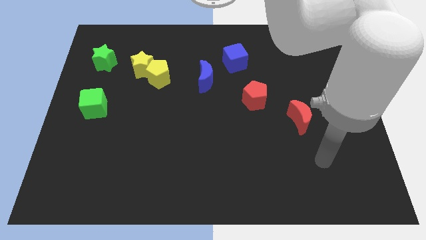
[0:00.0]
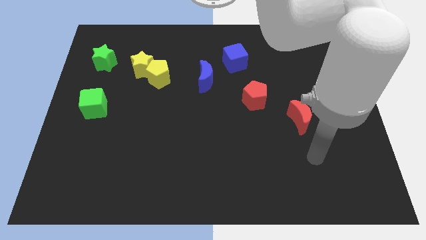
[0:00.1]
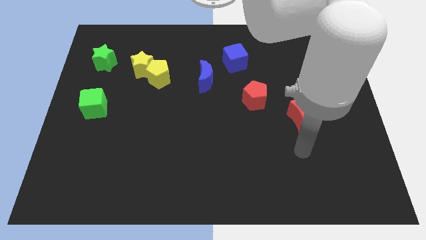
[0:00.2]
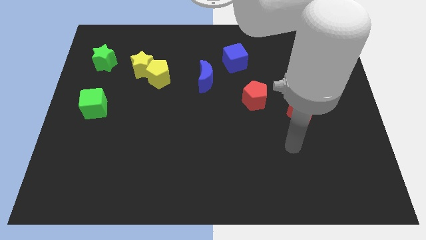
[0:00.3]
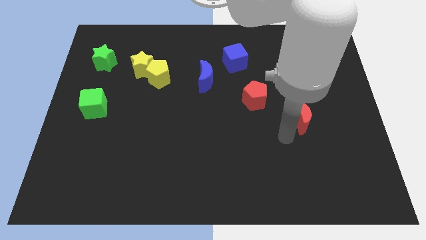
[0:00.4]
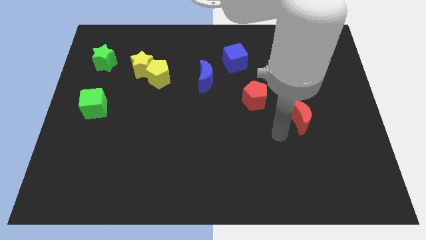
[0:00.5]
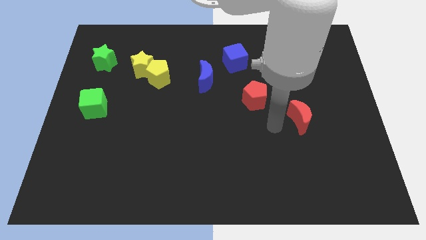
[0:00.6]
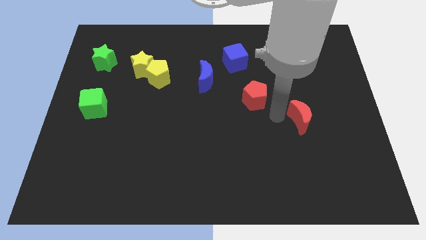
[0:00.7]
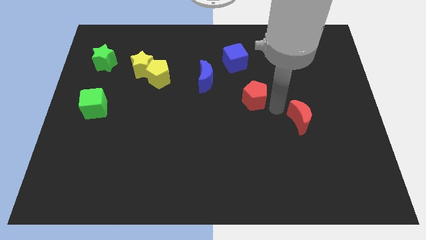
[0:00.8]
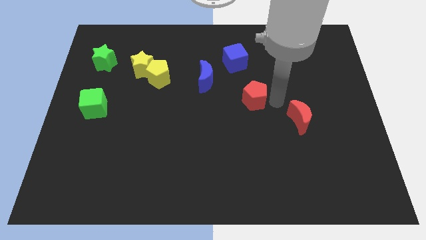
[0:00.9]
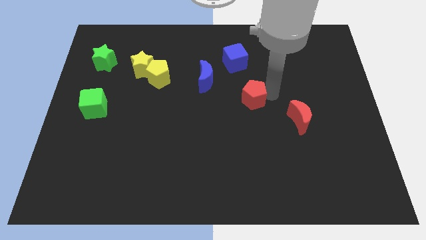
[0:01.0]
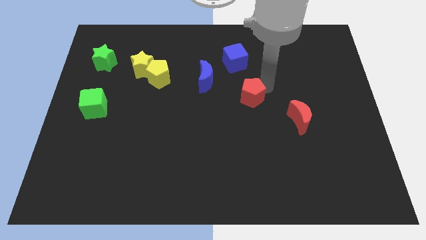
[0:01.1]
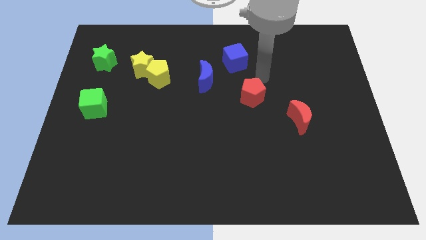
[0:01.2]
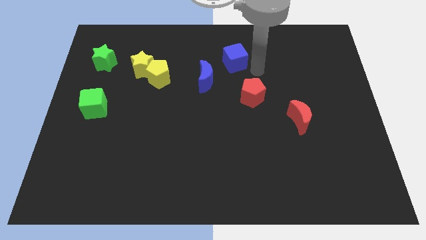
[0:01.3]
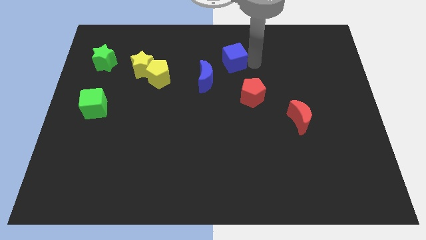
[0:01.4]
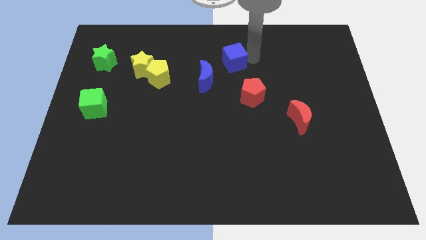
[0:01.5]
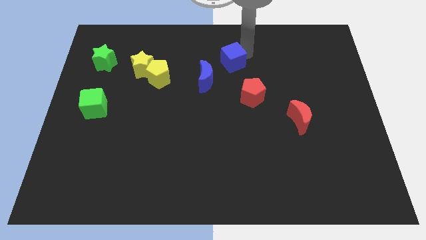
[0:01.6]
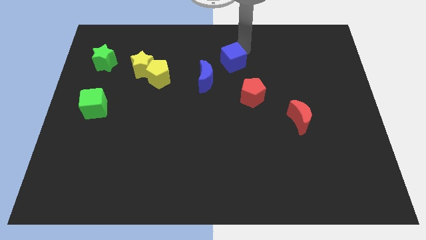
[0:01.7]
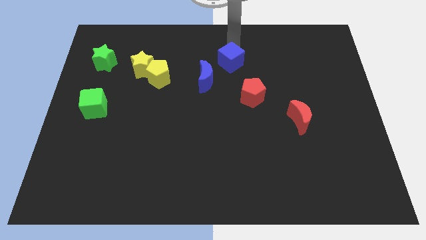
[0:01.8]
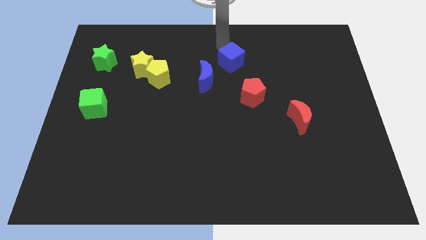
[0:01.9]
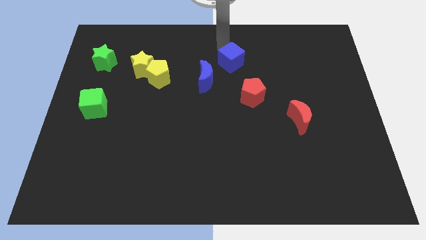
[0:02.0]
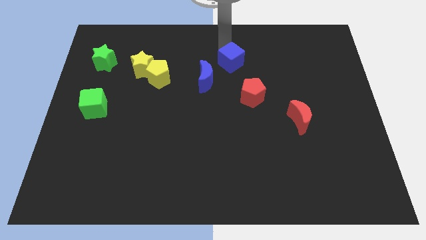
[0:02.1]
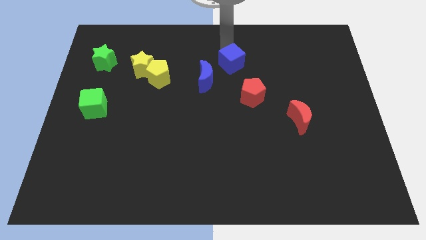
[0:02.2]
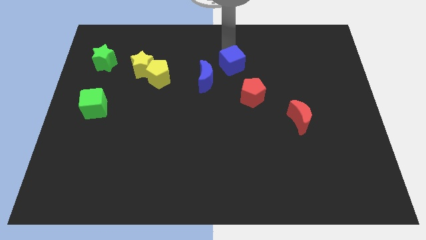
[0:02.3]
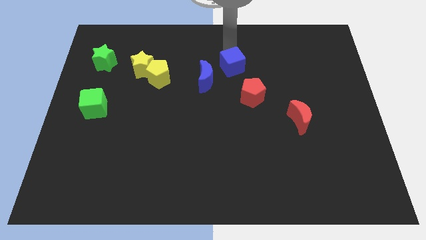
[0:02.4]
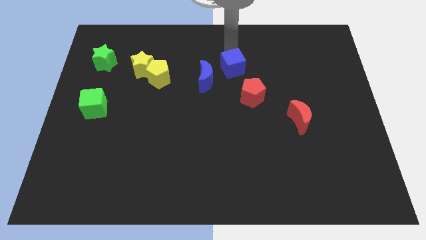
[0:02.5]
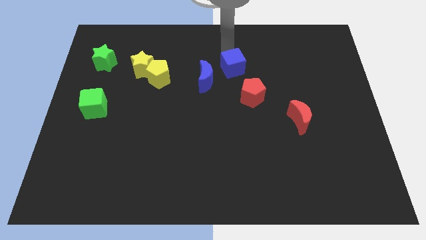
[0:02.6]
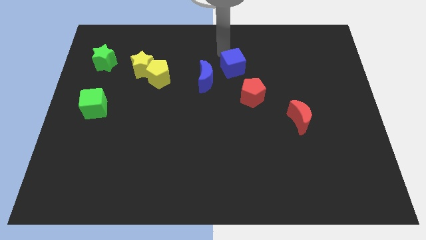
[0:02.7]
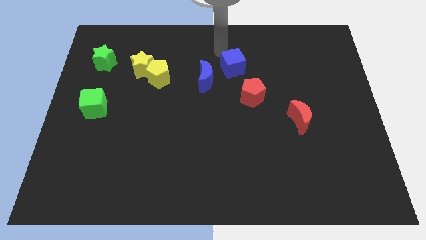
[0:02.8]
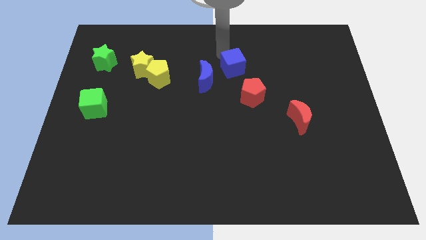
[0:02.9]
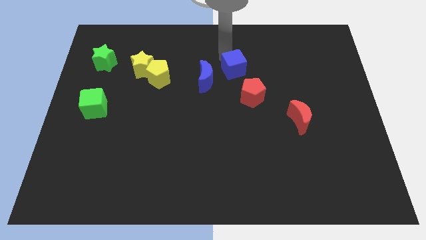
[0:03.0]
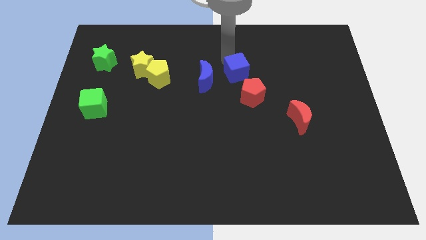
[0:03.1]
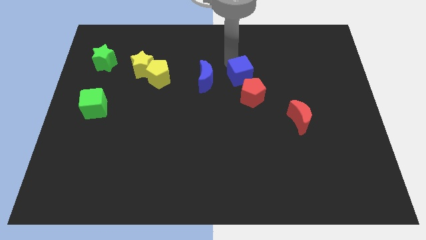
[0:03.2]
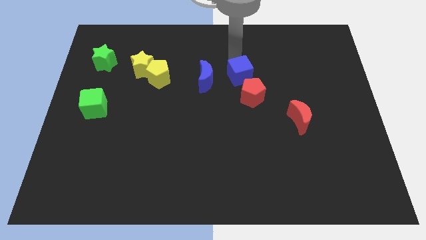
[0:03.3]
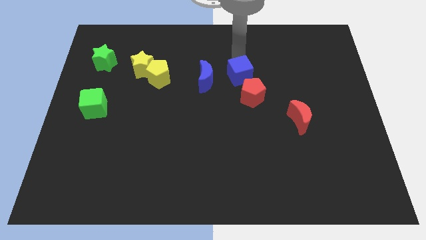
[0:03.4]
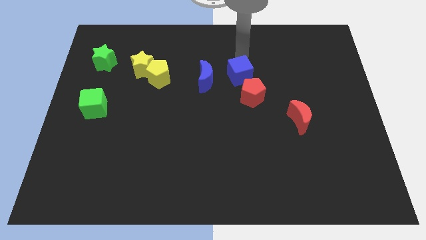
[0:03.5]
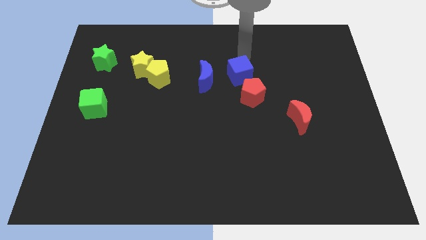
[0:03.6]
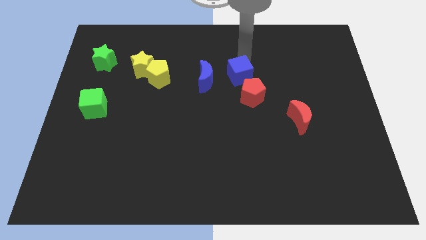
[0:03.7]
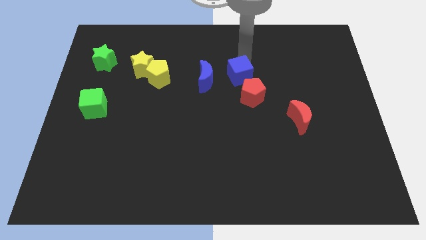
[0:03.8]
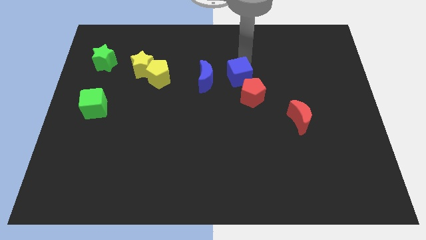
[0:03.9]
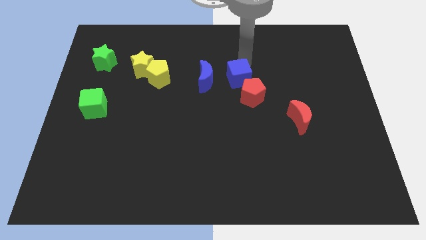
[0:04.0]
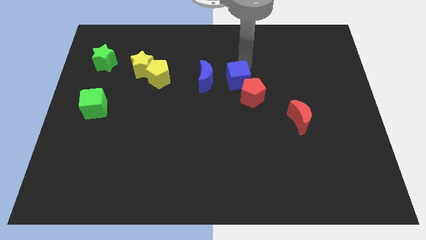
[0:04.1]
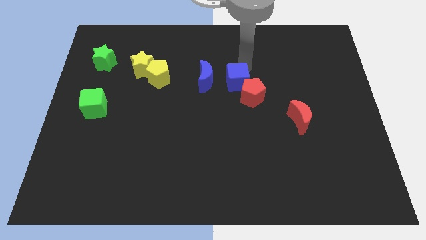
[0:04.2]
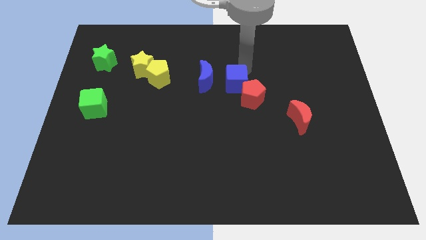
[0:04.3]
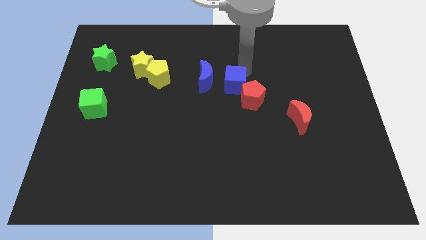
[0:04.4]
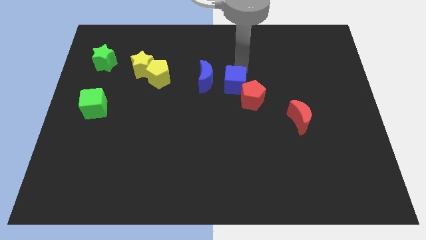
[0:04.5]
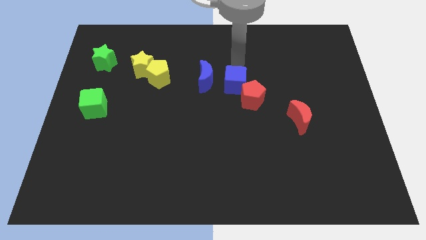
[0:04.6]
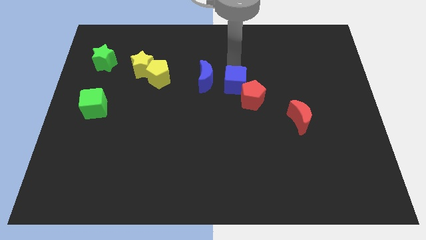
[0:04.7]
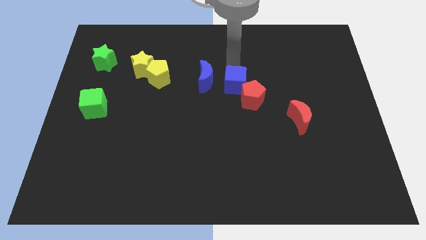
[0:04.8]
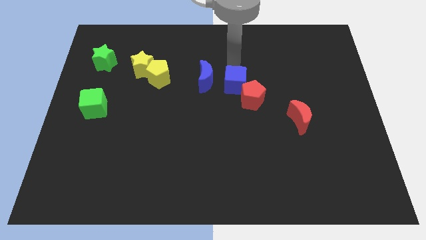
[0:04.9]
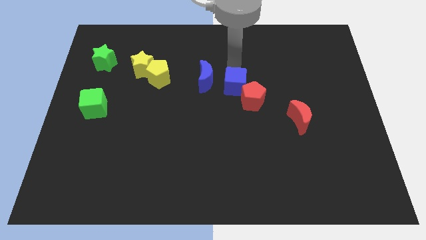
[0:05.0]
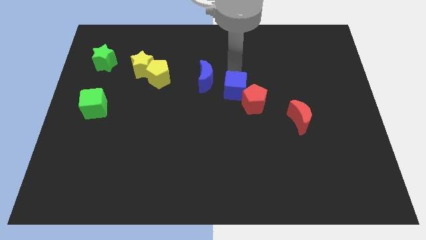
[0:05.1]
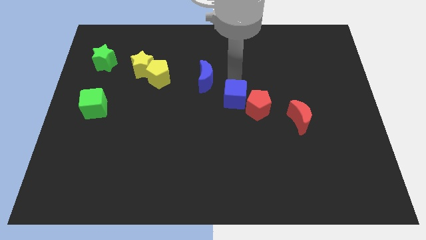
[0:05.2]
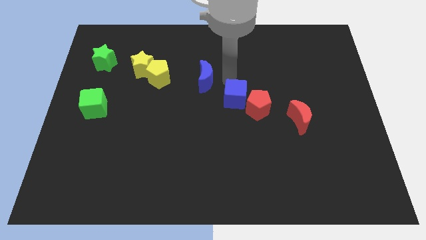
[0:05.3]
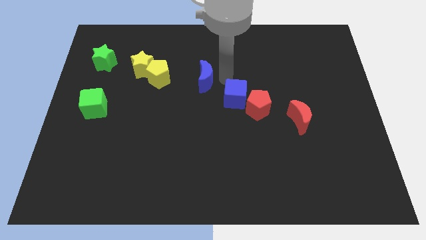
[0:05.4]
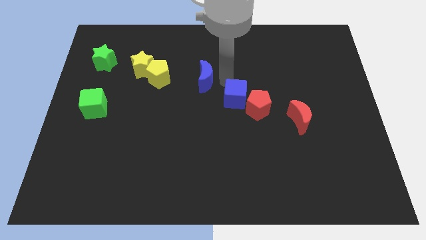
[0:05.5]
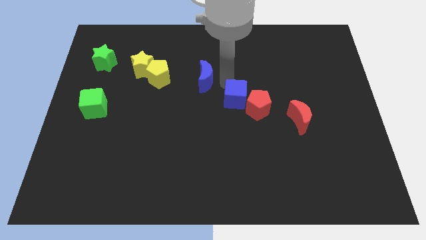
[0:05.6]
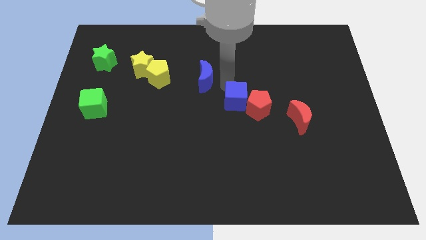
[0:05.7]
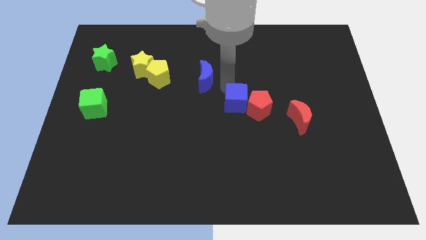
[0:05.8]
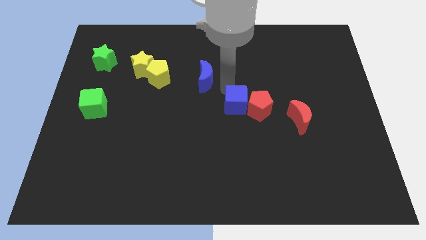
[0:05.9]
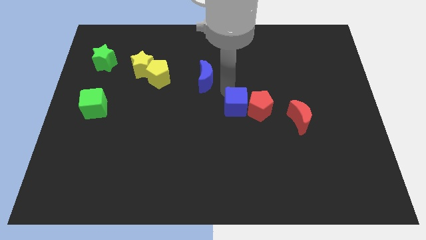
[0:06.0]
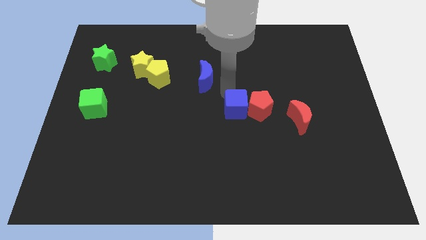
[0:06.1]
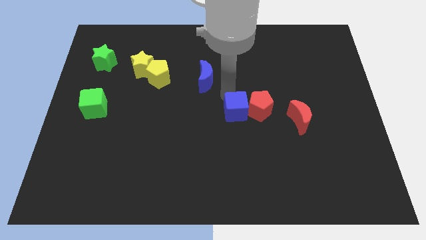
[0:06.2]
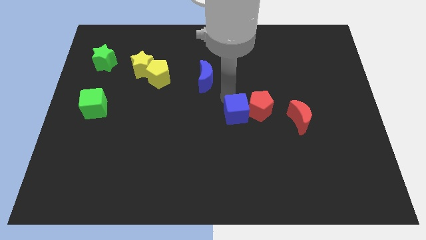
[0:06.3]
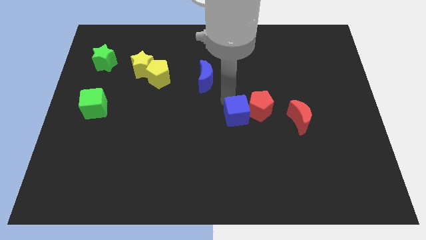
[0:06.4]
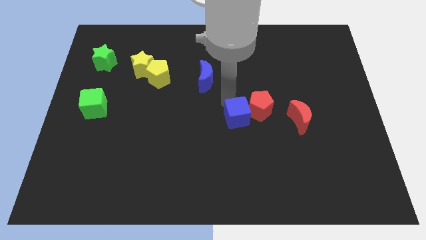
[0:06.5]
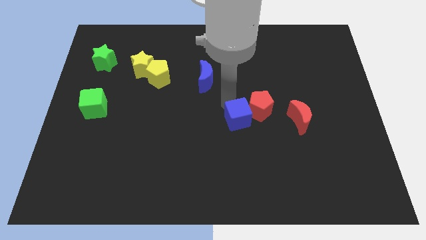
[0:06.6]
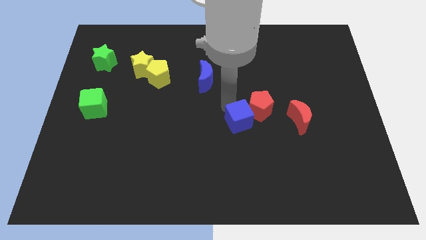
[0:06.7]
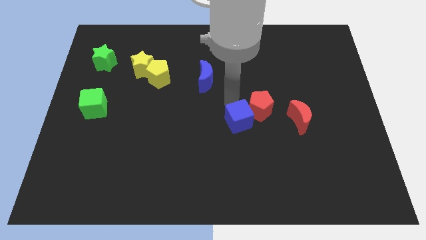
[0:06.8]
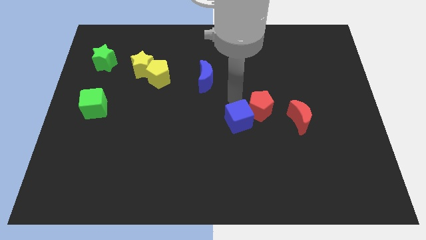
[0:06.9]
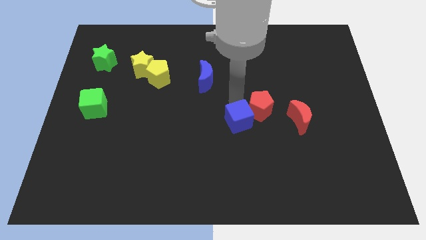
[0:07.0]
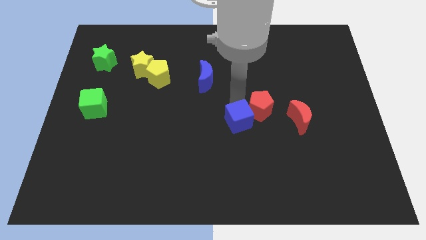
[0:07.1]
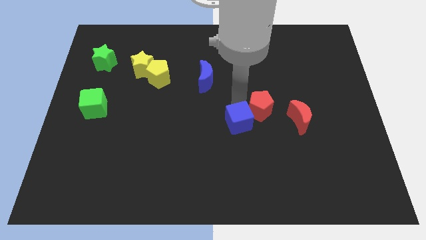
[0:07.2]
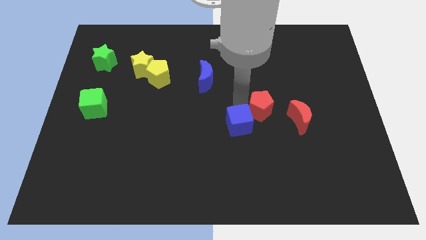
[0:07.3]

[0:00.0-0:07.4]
move the blue cube downwards

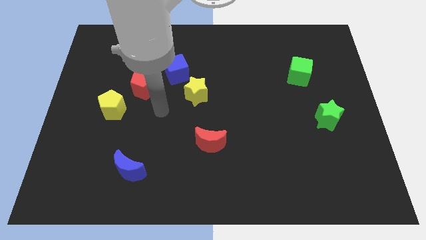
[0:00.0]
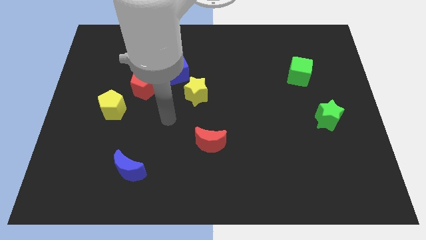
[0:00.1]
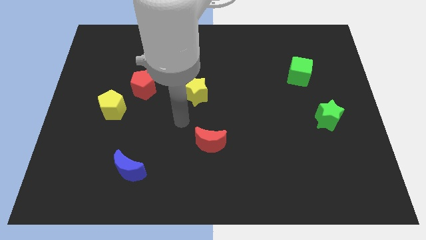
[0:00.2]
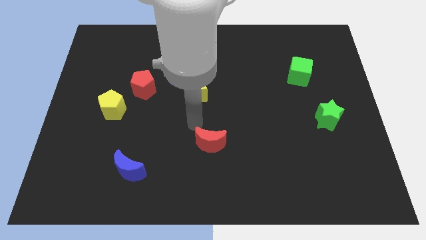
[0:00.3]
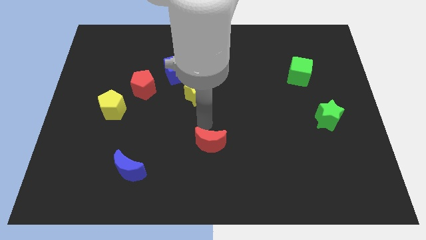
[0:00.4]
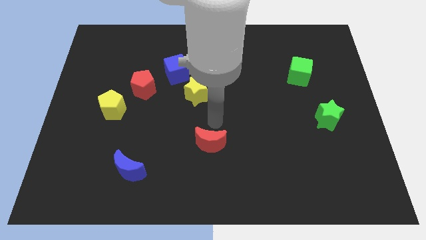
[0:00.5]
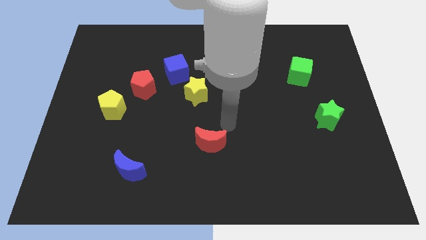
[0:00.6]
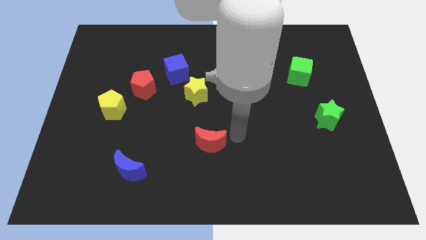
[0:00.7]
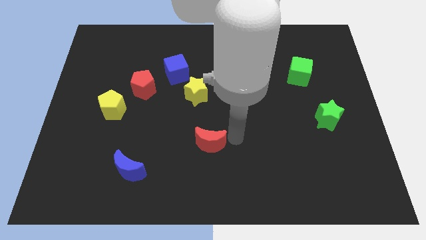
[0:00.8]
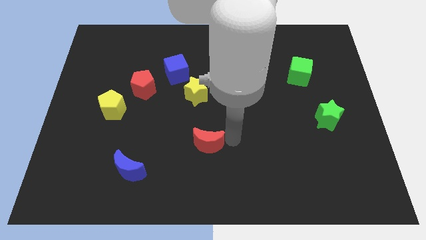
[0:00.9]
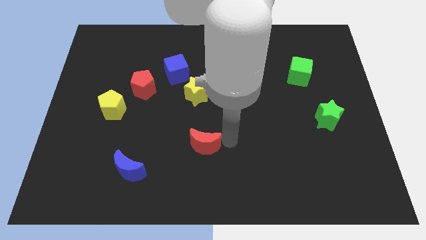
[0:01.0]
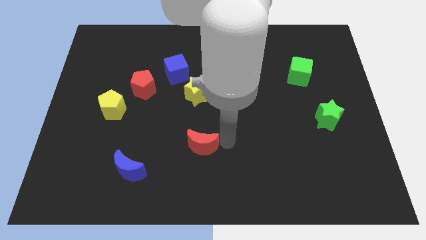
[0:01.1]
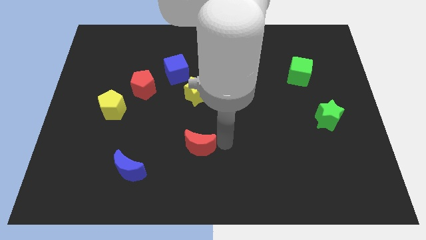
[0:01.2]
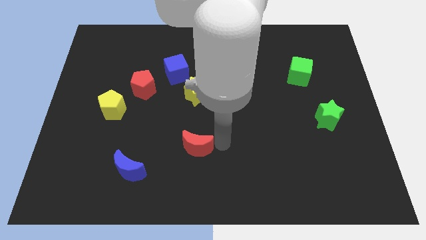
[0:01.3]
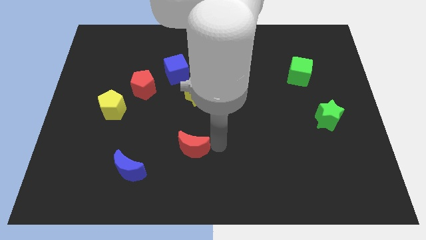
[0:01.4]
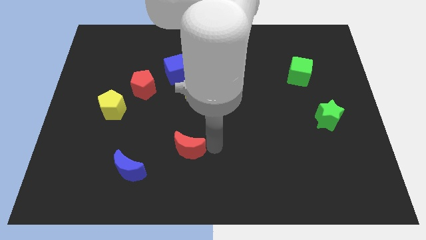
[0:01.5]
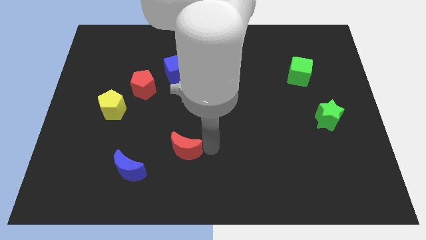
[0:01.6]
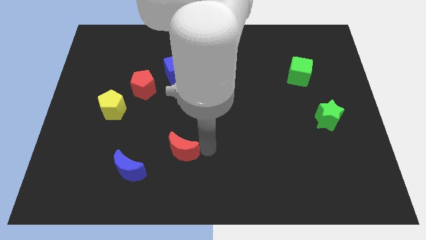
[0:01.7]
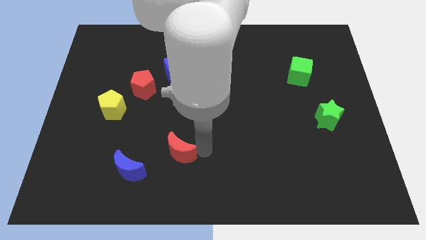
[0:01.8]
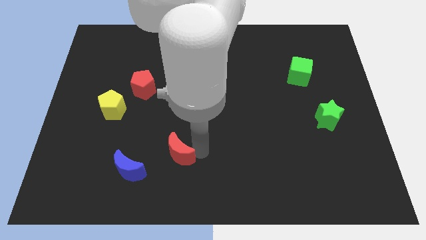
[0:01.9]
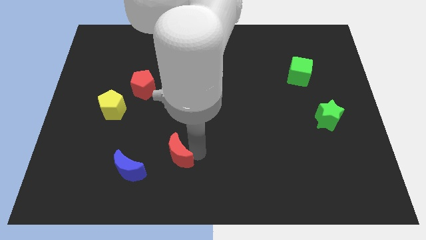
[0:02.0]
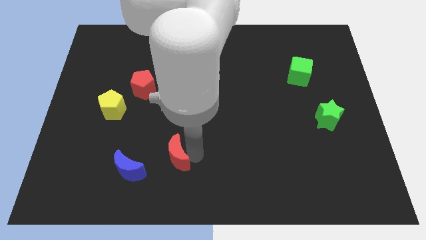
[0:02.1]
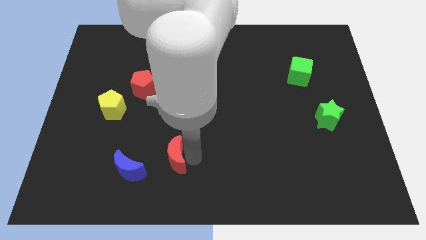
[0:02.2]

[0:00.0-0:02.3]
slightly push the red moon to the left
